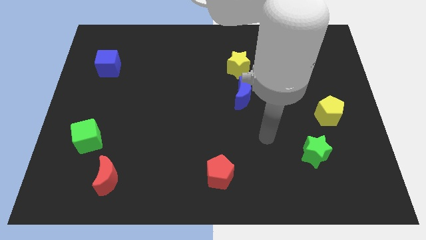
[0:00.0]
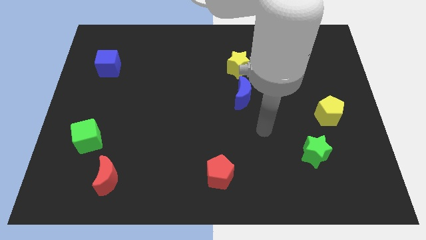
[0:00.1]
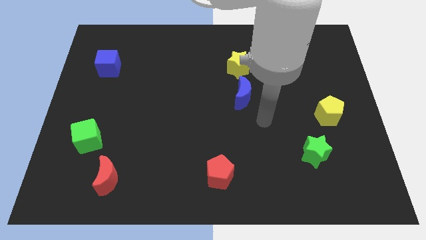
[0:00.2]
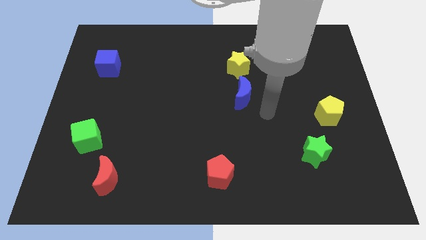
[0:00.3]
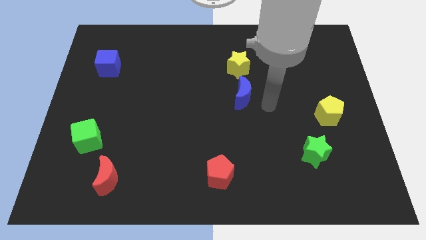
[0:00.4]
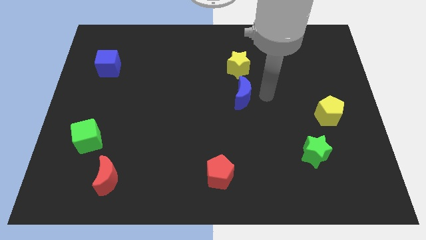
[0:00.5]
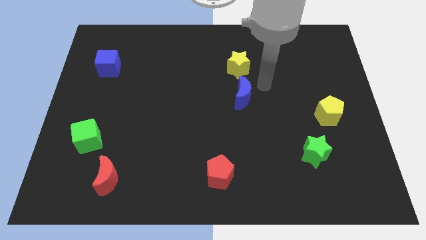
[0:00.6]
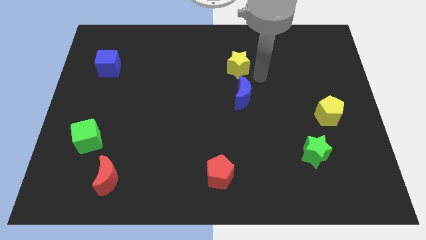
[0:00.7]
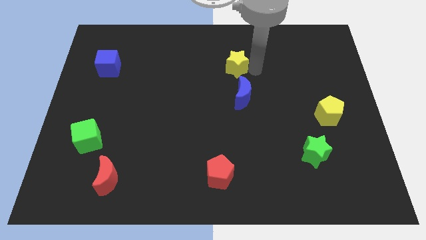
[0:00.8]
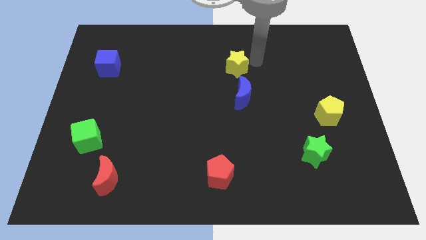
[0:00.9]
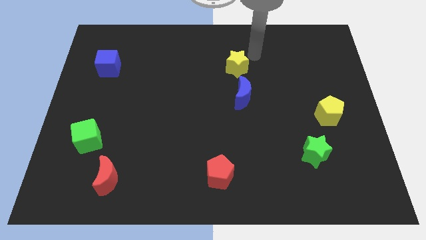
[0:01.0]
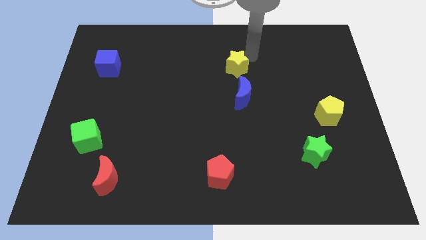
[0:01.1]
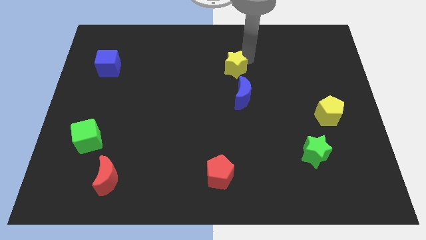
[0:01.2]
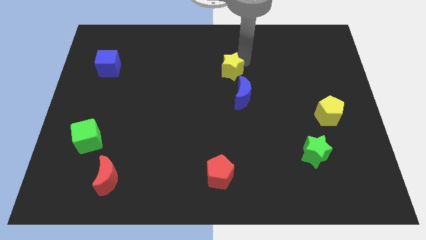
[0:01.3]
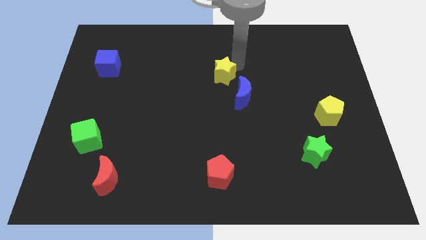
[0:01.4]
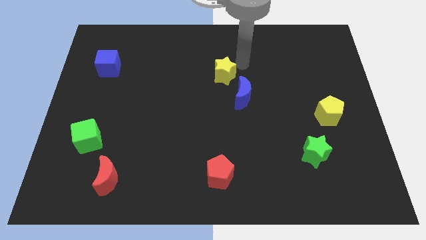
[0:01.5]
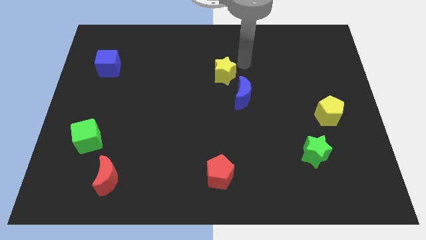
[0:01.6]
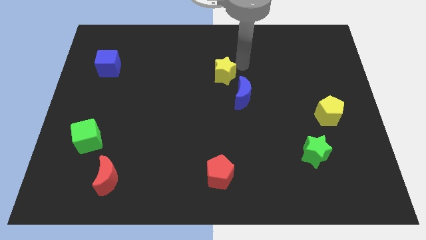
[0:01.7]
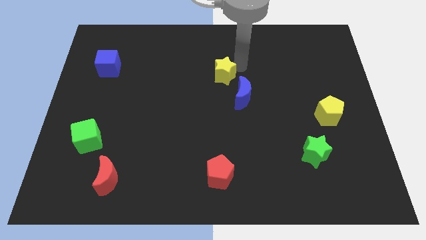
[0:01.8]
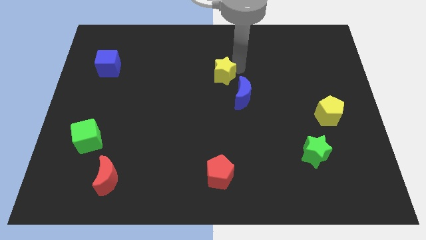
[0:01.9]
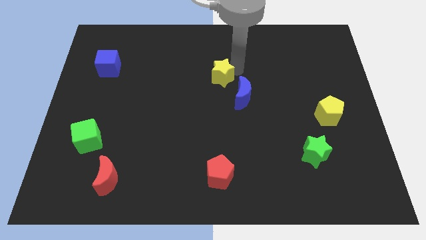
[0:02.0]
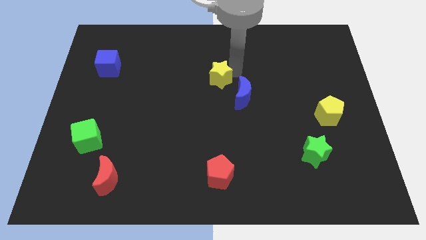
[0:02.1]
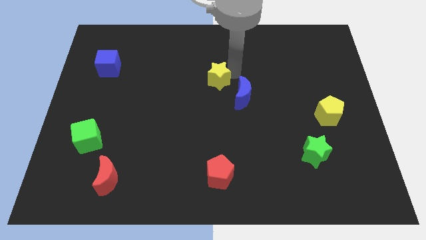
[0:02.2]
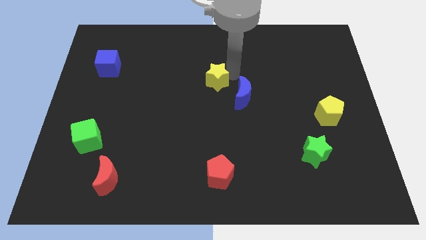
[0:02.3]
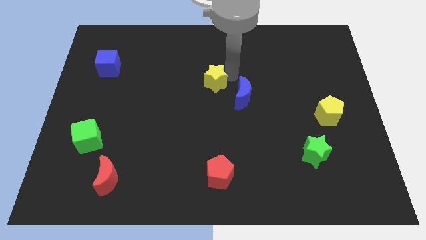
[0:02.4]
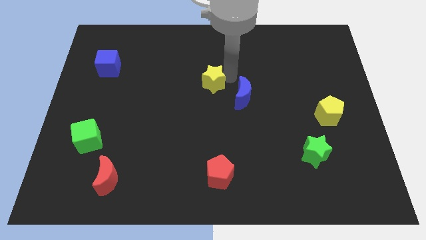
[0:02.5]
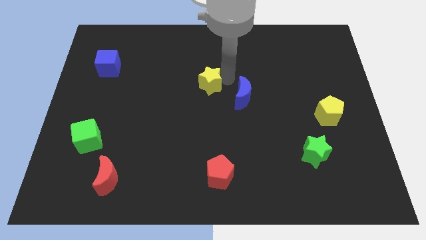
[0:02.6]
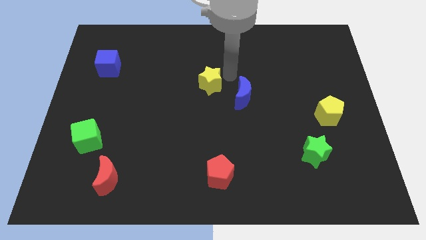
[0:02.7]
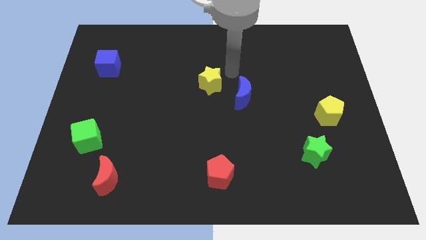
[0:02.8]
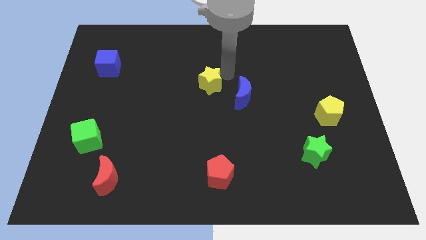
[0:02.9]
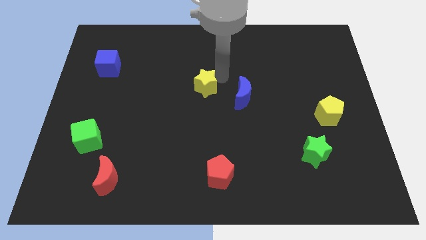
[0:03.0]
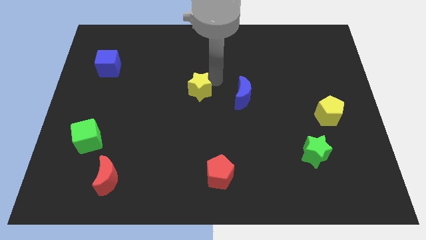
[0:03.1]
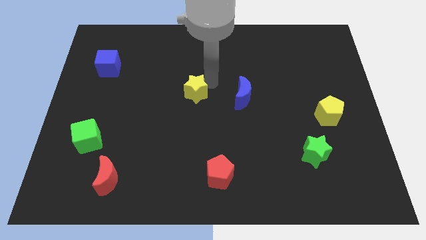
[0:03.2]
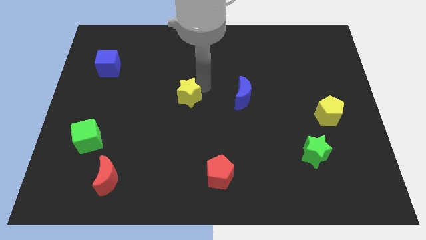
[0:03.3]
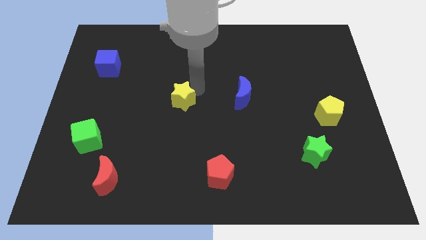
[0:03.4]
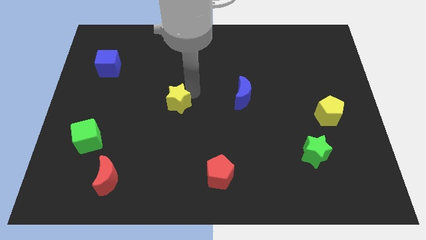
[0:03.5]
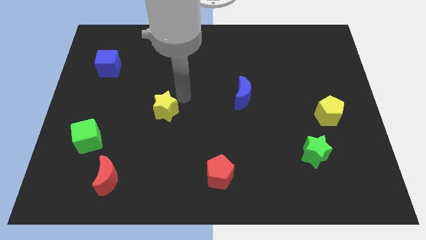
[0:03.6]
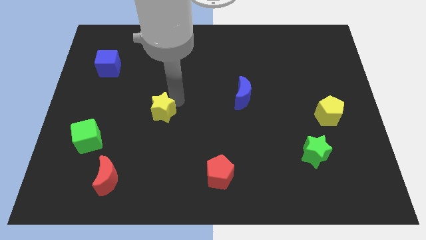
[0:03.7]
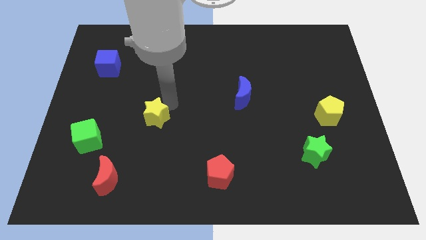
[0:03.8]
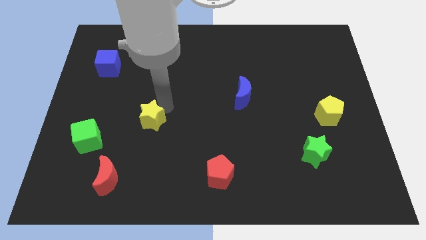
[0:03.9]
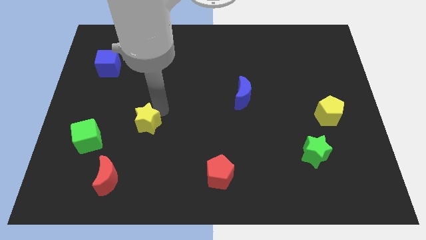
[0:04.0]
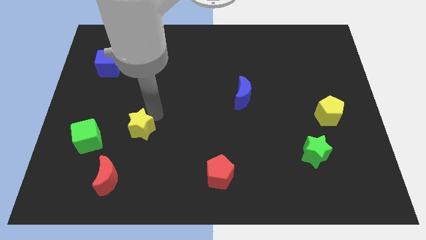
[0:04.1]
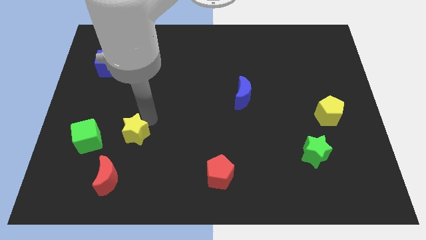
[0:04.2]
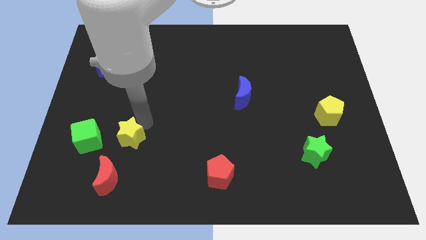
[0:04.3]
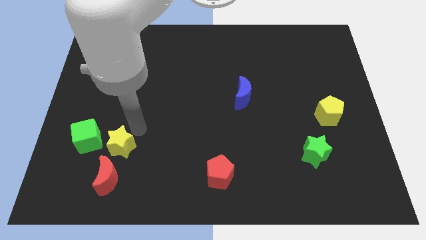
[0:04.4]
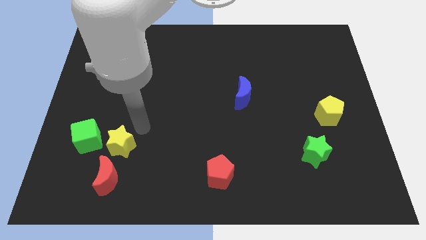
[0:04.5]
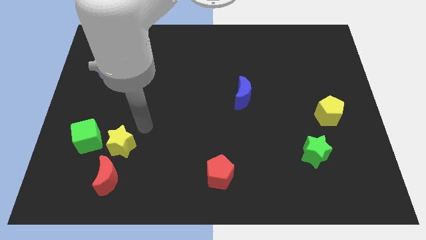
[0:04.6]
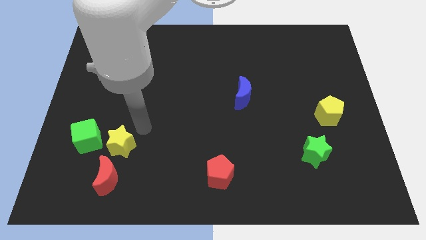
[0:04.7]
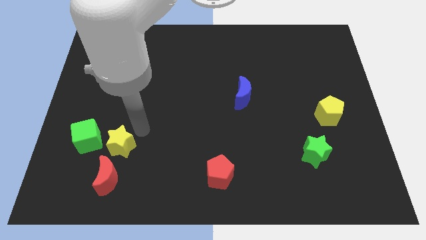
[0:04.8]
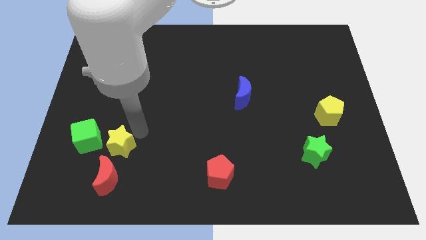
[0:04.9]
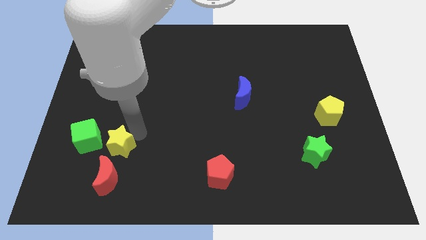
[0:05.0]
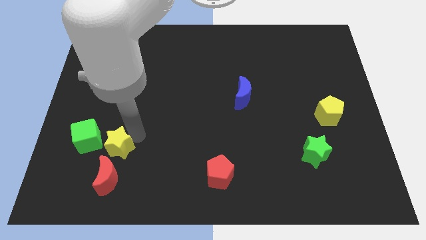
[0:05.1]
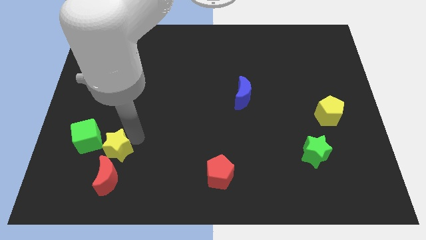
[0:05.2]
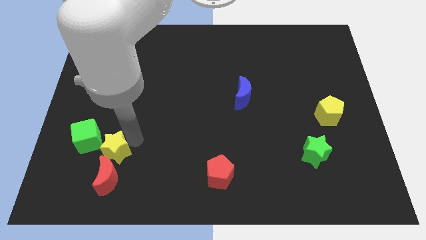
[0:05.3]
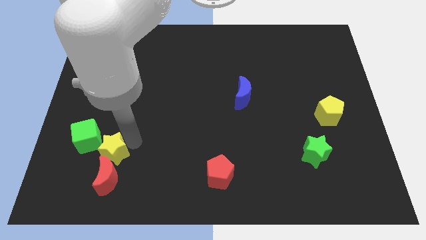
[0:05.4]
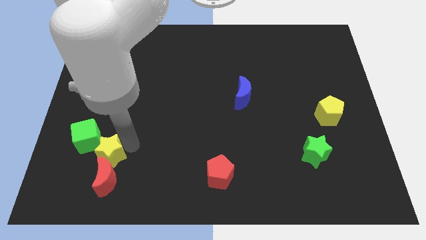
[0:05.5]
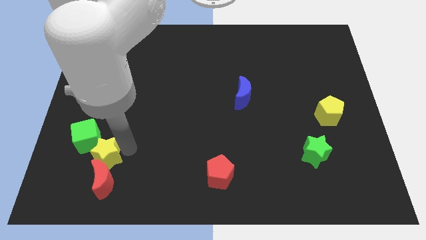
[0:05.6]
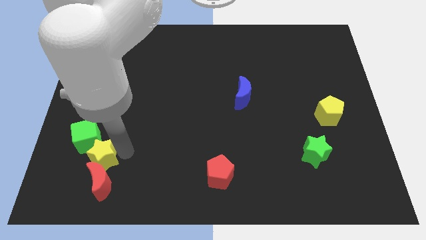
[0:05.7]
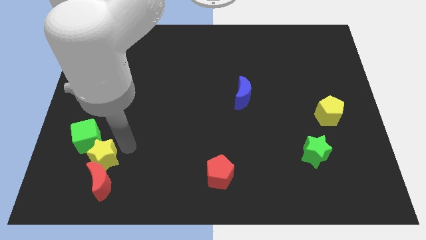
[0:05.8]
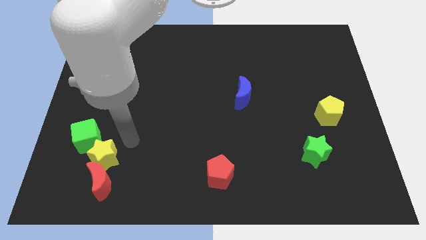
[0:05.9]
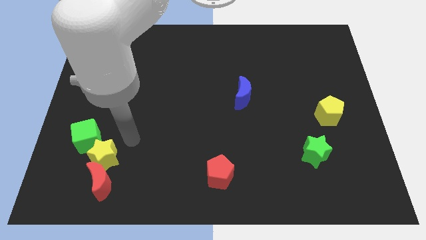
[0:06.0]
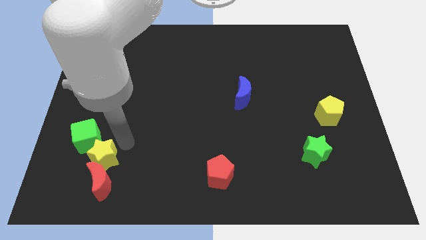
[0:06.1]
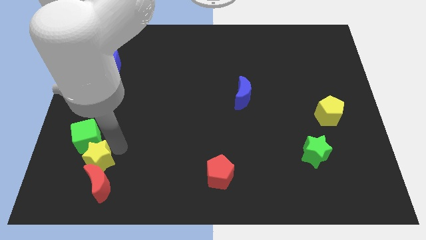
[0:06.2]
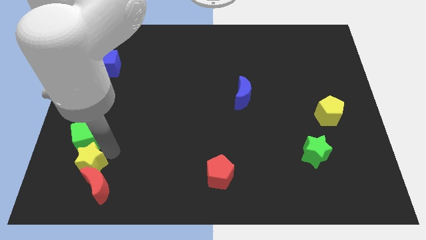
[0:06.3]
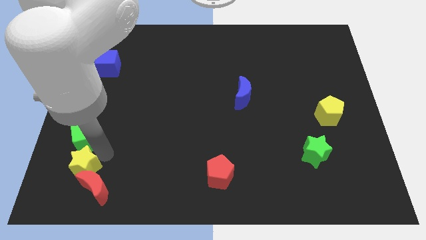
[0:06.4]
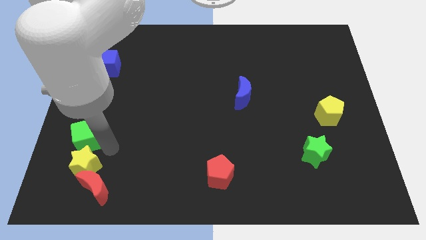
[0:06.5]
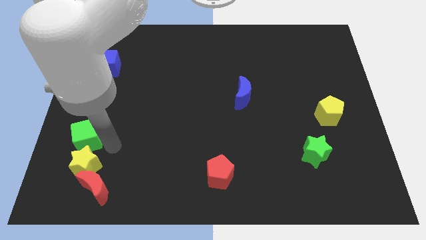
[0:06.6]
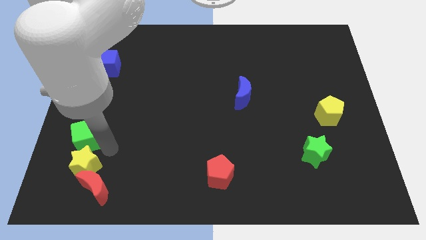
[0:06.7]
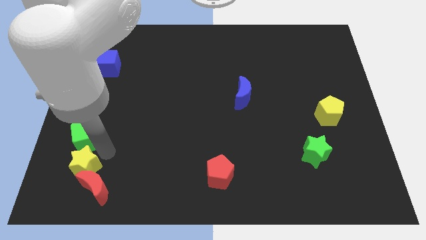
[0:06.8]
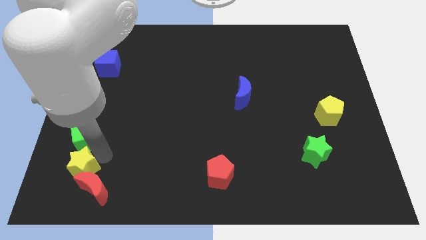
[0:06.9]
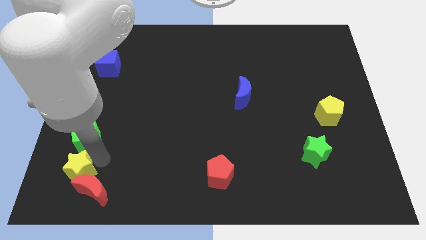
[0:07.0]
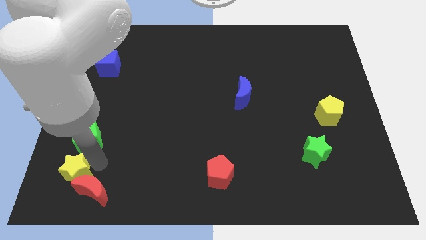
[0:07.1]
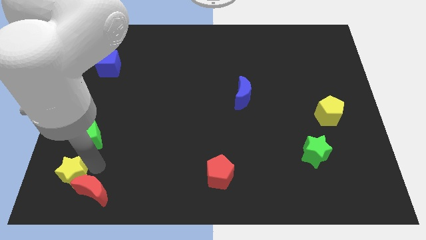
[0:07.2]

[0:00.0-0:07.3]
push the yellow star to the bottom left

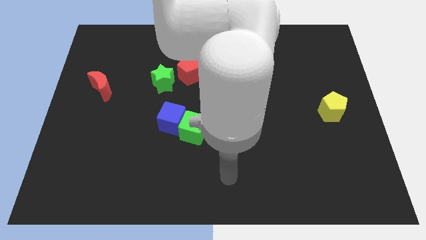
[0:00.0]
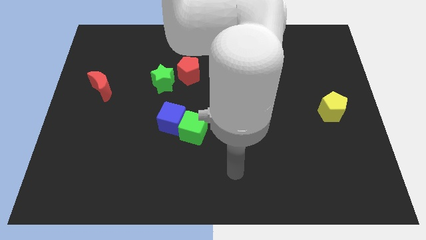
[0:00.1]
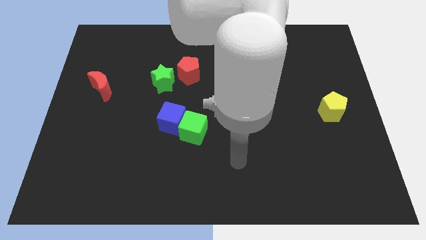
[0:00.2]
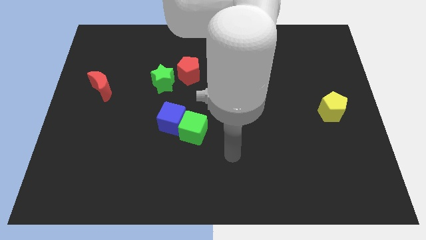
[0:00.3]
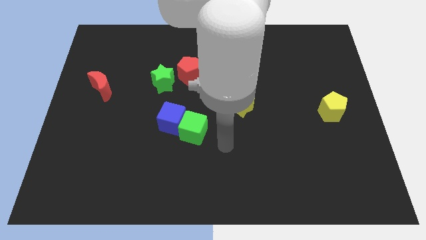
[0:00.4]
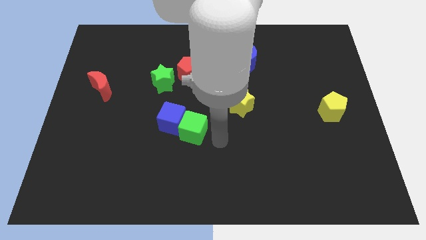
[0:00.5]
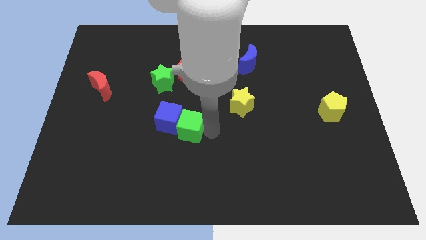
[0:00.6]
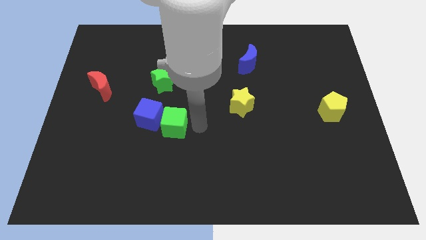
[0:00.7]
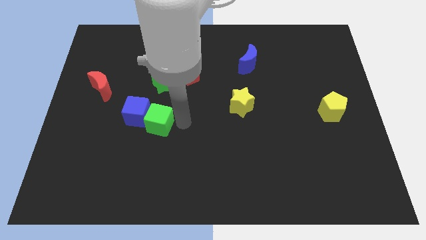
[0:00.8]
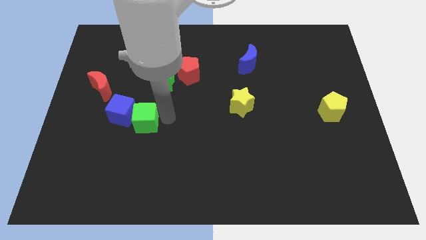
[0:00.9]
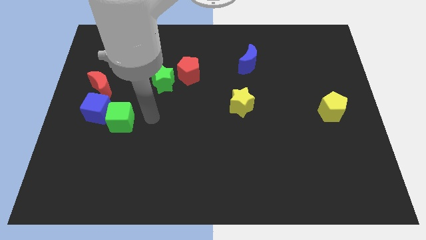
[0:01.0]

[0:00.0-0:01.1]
slide the blue cube to the left side
